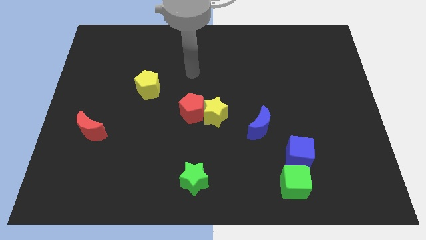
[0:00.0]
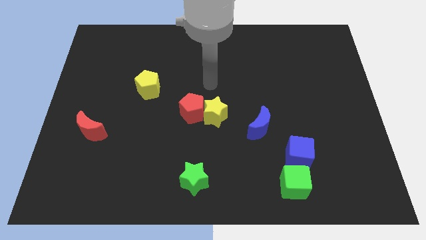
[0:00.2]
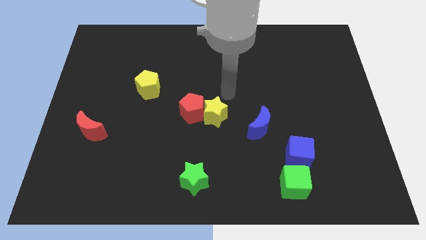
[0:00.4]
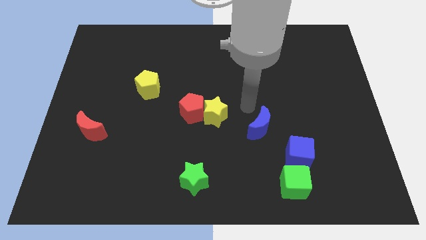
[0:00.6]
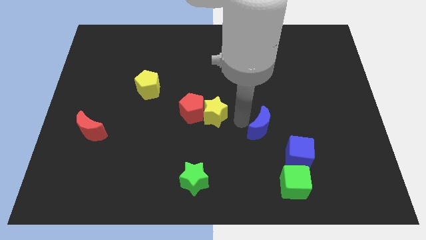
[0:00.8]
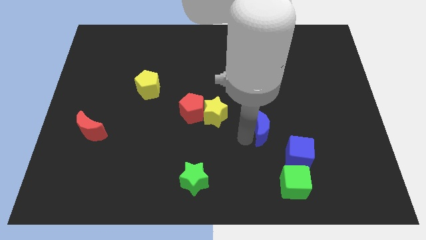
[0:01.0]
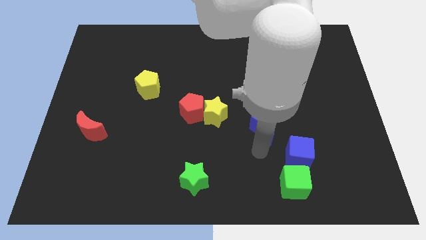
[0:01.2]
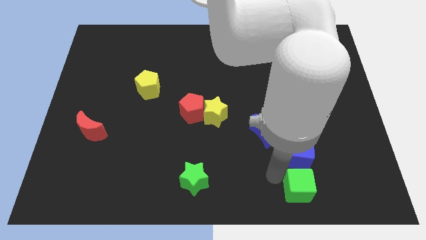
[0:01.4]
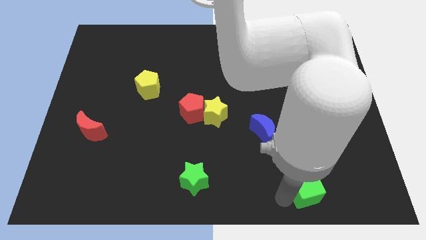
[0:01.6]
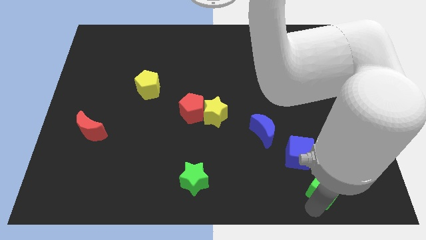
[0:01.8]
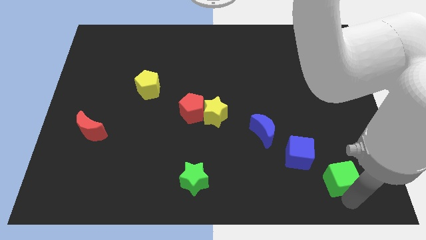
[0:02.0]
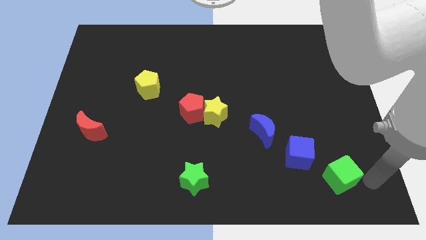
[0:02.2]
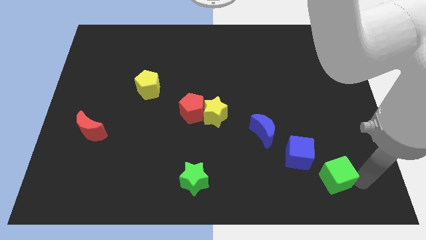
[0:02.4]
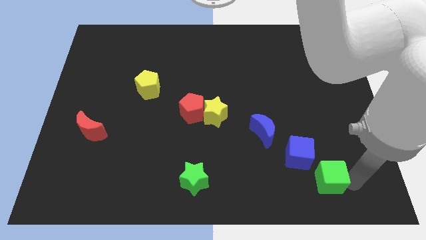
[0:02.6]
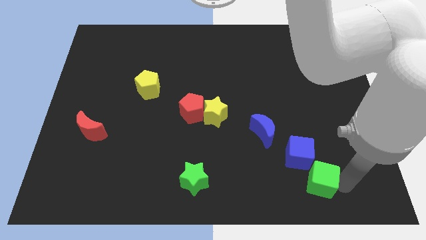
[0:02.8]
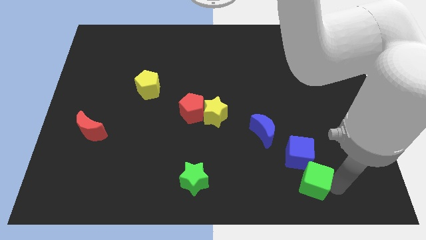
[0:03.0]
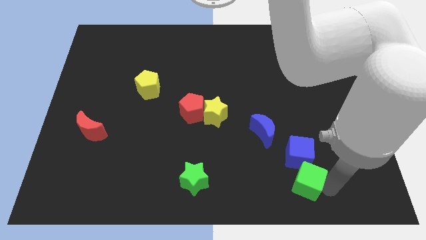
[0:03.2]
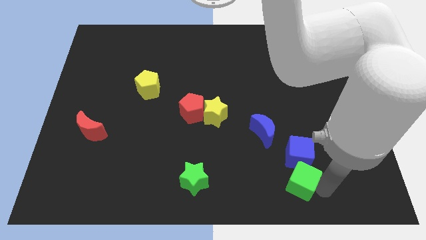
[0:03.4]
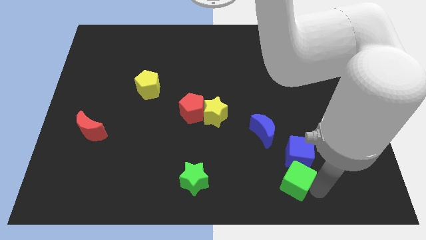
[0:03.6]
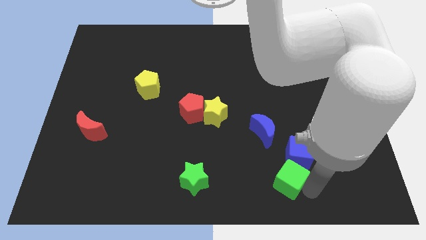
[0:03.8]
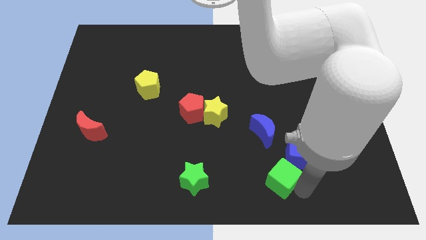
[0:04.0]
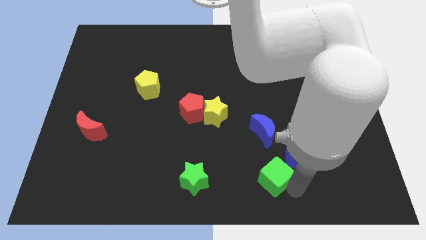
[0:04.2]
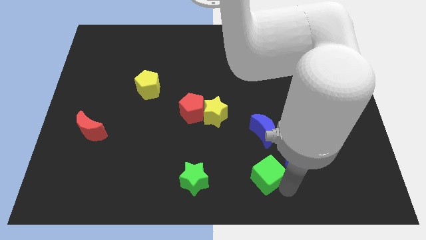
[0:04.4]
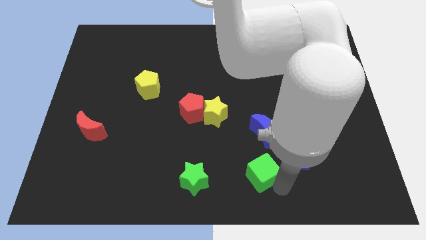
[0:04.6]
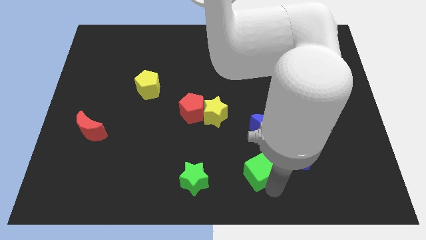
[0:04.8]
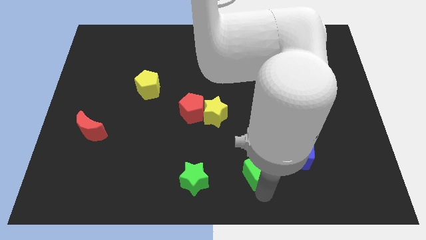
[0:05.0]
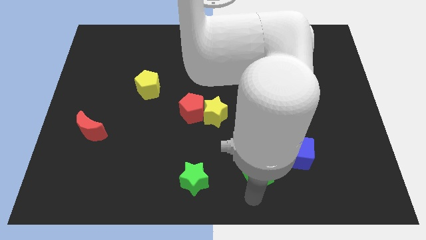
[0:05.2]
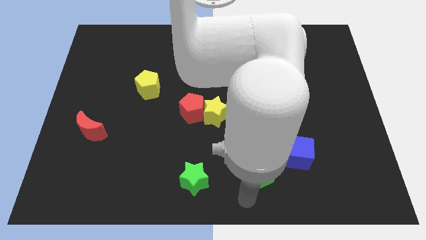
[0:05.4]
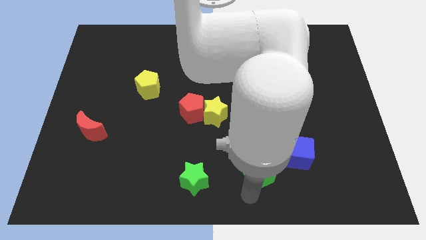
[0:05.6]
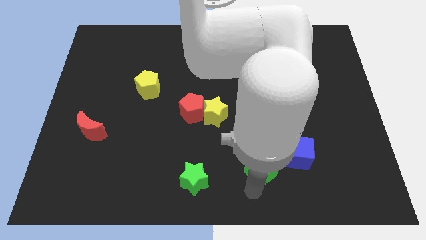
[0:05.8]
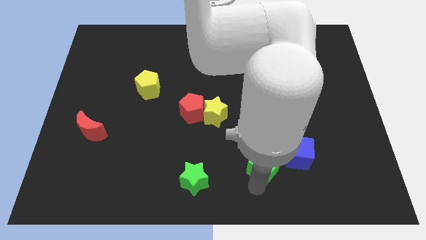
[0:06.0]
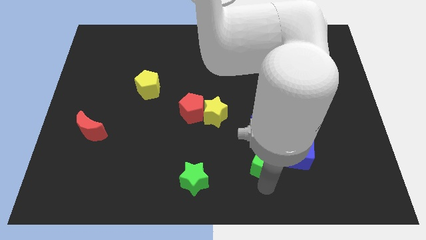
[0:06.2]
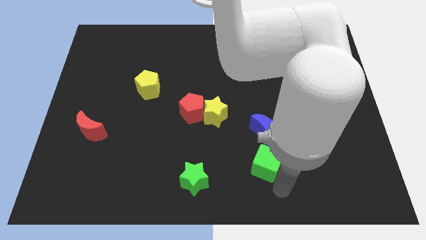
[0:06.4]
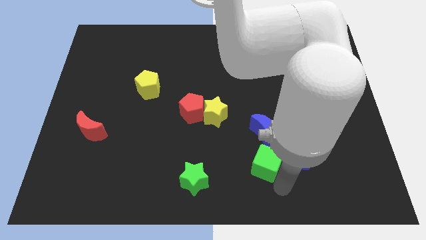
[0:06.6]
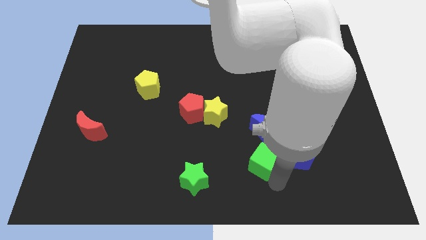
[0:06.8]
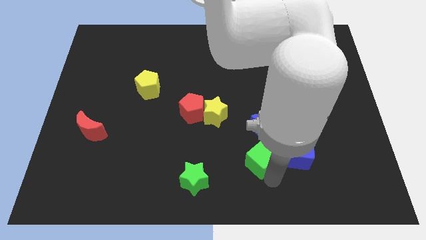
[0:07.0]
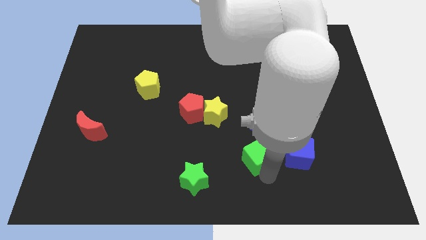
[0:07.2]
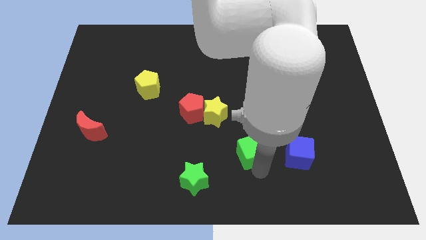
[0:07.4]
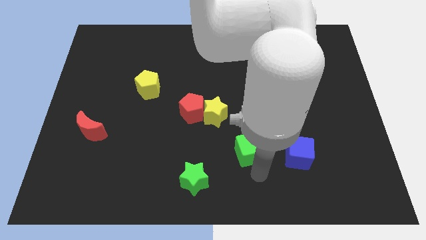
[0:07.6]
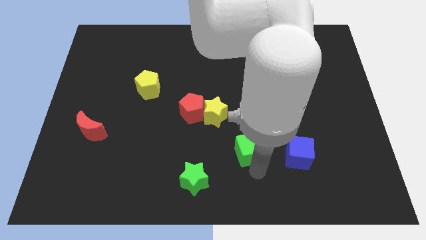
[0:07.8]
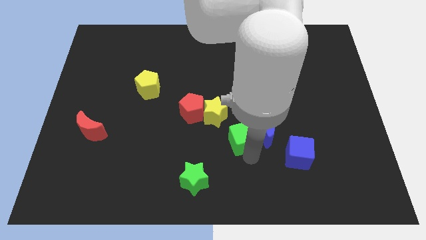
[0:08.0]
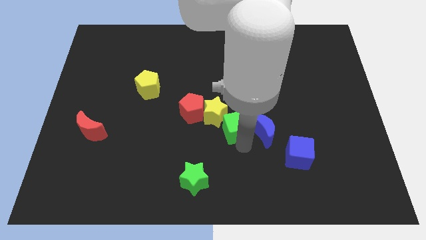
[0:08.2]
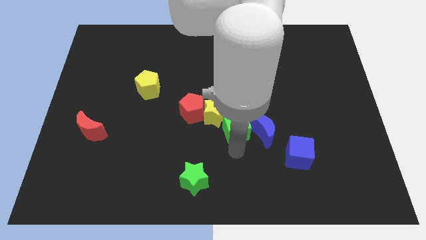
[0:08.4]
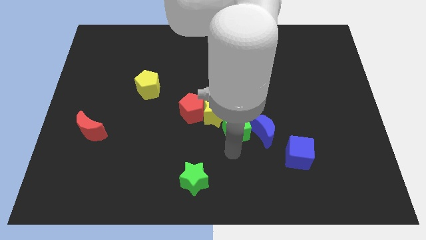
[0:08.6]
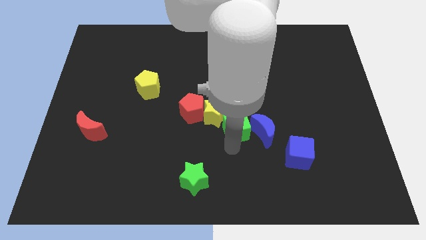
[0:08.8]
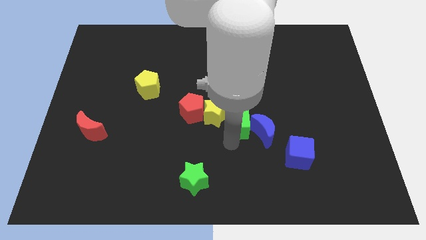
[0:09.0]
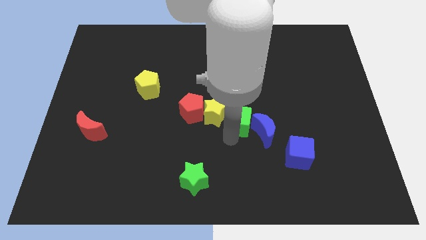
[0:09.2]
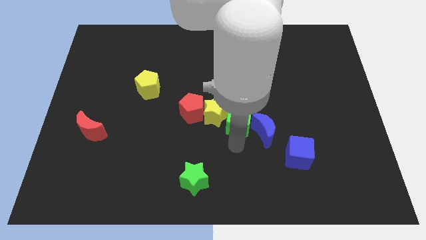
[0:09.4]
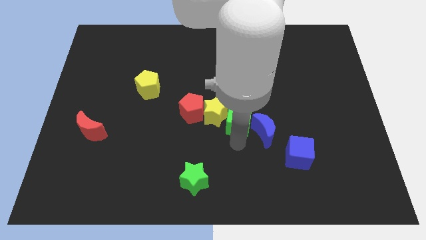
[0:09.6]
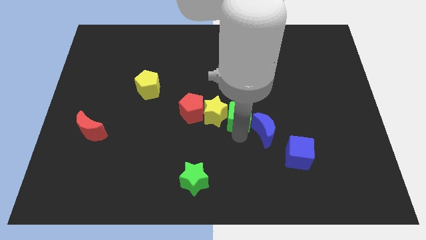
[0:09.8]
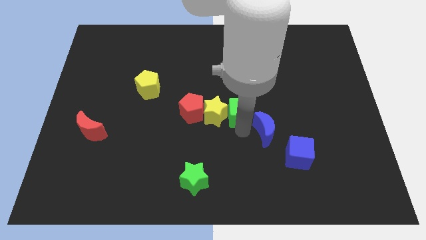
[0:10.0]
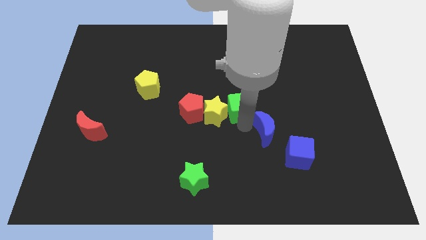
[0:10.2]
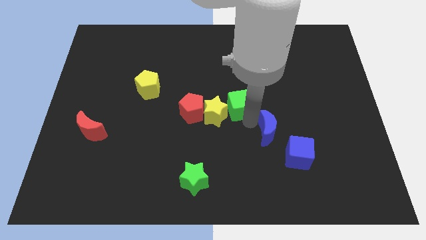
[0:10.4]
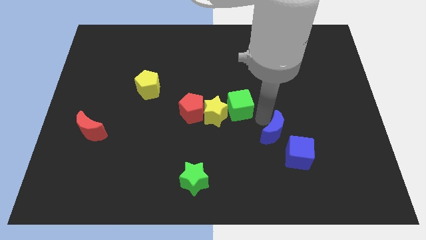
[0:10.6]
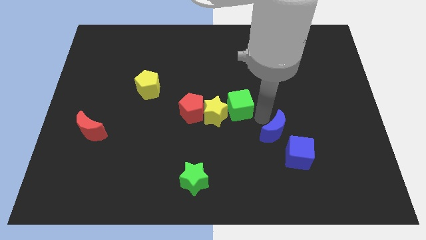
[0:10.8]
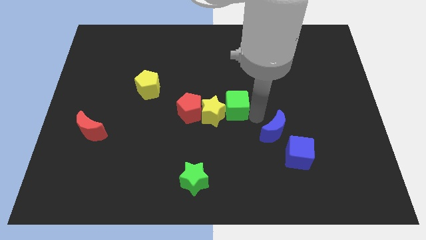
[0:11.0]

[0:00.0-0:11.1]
push the green cube upwards and then left

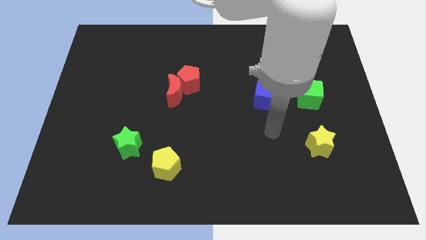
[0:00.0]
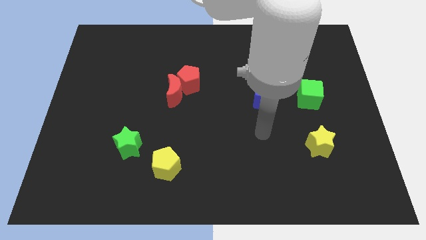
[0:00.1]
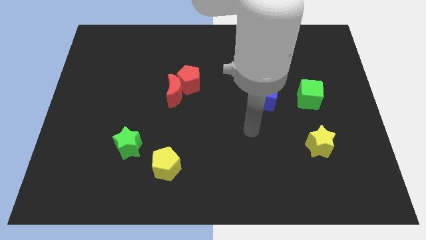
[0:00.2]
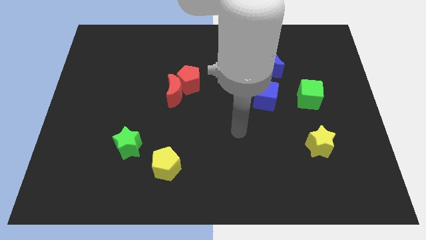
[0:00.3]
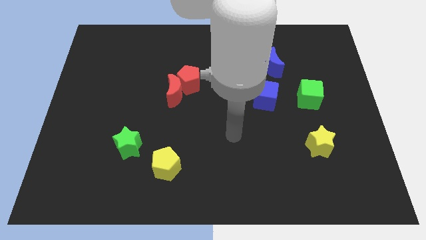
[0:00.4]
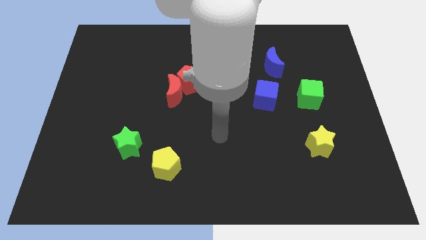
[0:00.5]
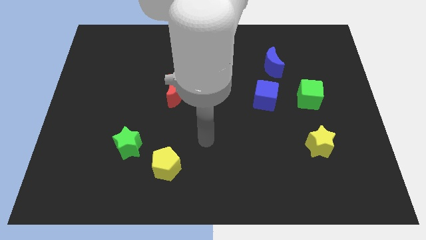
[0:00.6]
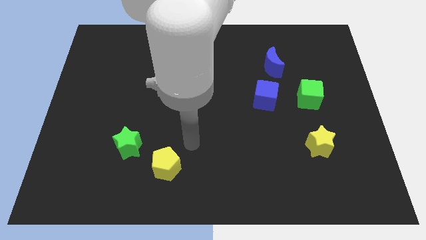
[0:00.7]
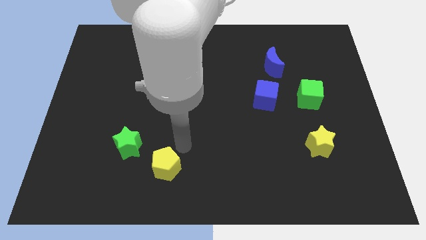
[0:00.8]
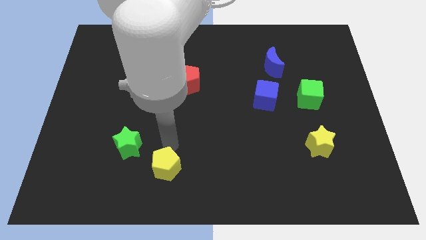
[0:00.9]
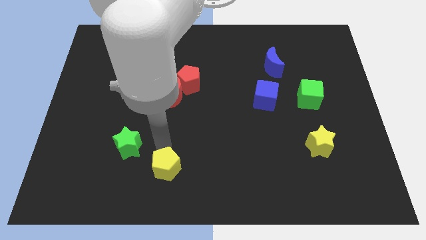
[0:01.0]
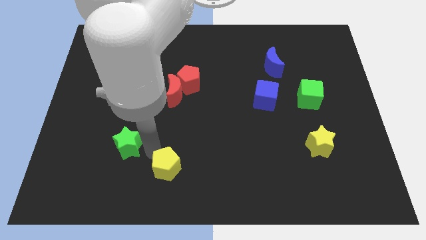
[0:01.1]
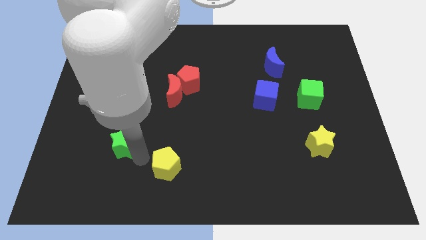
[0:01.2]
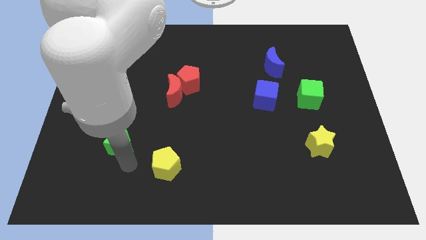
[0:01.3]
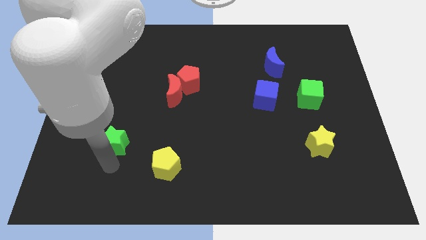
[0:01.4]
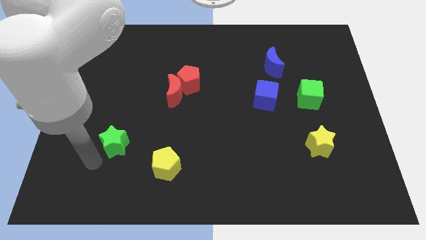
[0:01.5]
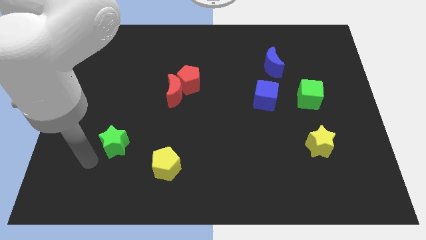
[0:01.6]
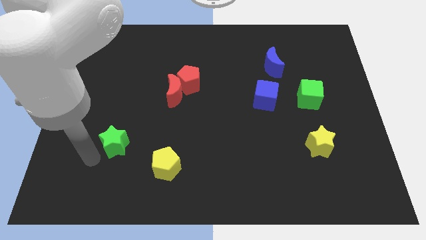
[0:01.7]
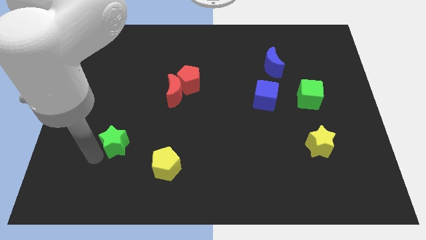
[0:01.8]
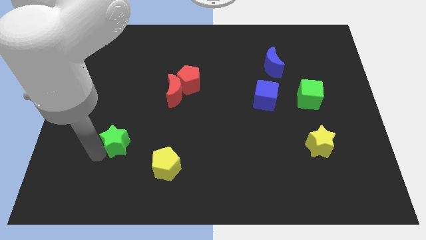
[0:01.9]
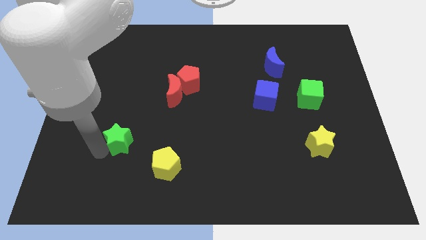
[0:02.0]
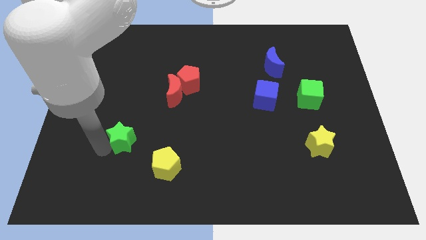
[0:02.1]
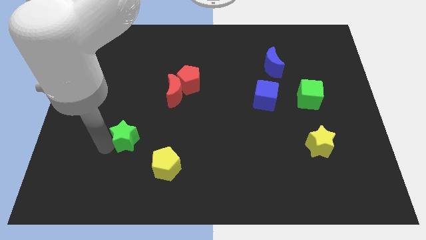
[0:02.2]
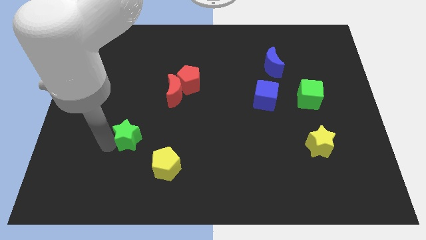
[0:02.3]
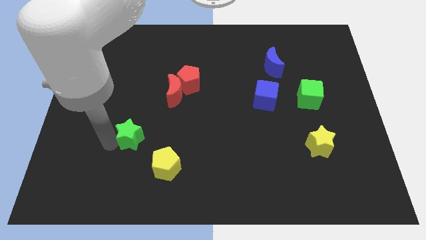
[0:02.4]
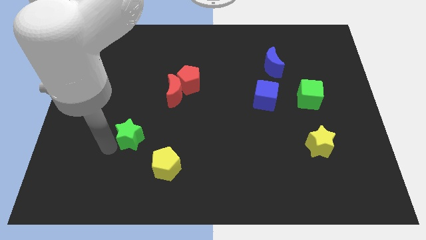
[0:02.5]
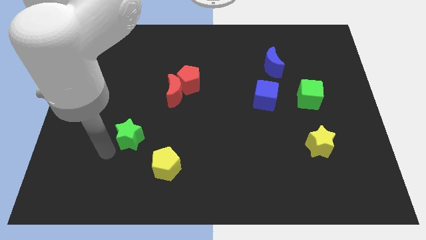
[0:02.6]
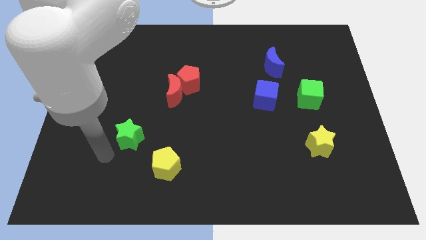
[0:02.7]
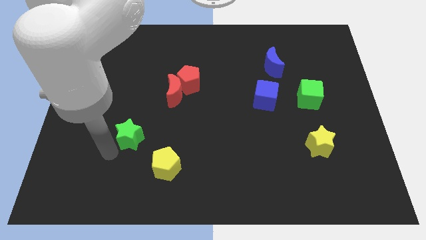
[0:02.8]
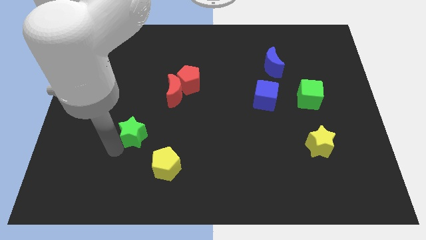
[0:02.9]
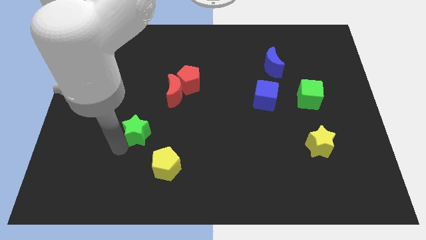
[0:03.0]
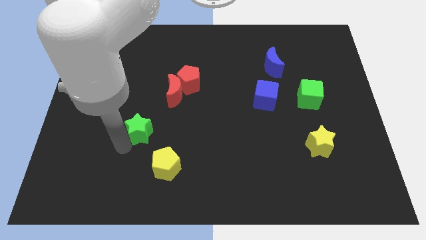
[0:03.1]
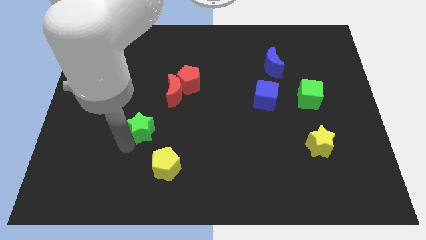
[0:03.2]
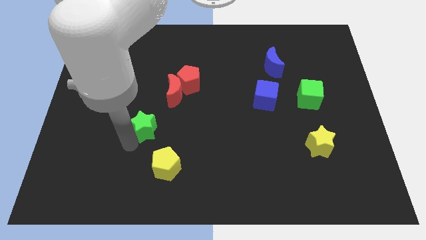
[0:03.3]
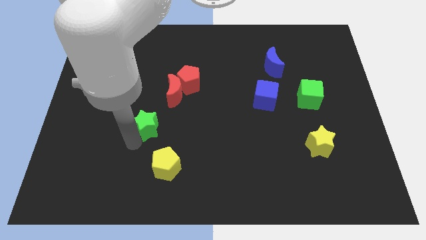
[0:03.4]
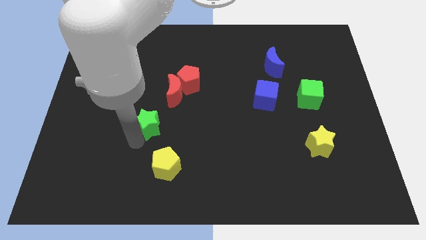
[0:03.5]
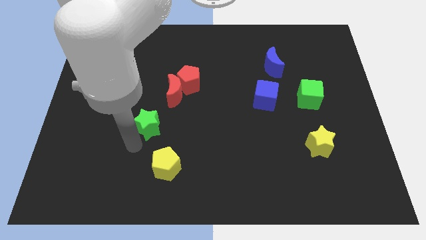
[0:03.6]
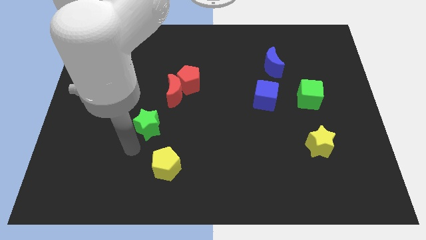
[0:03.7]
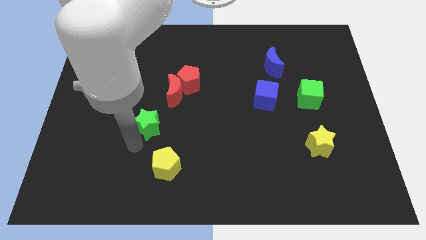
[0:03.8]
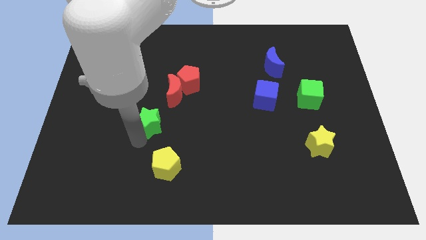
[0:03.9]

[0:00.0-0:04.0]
slightly push the green star up and right diagonally
